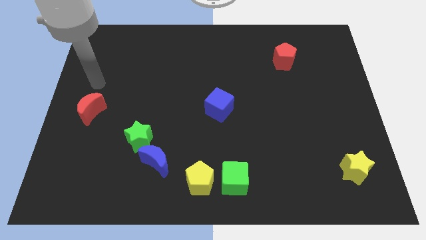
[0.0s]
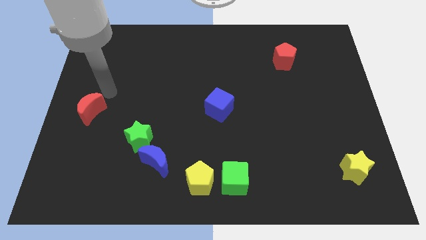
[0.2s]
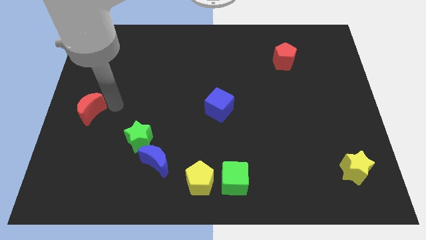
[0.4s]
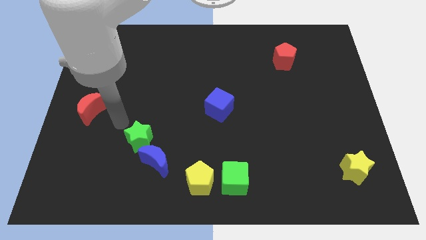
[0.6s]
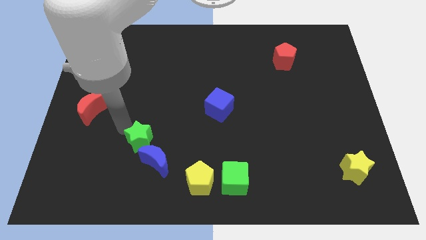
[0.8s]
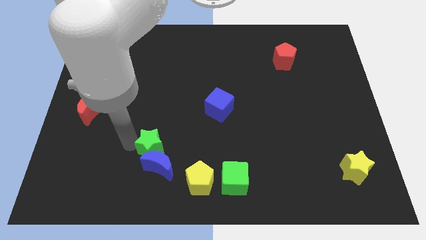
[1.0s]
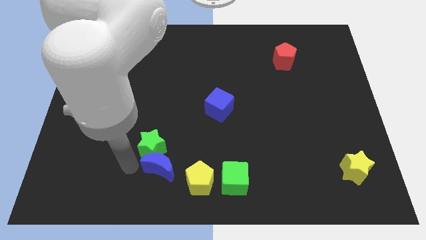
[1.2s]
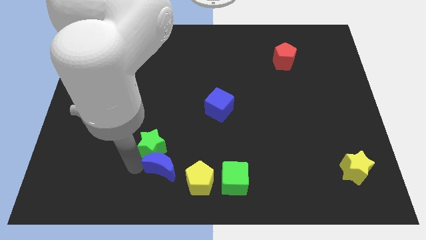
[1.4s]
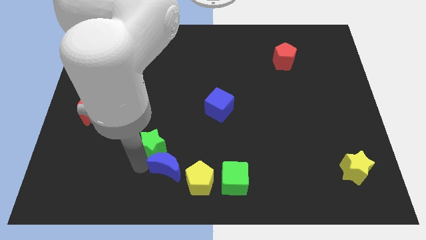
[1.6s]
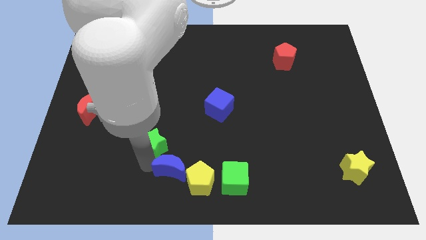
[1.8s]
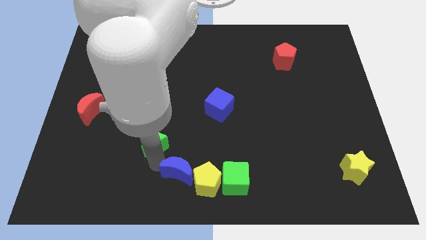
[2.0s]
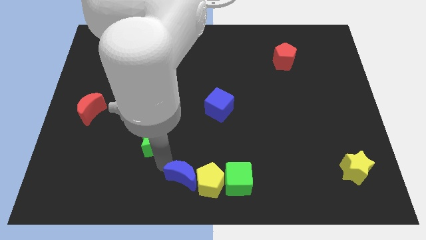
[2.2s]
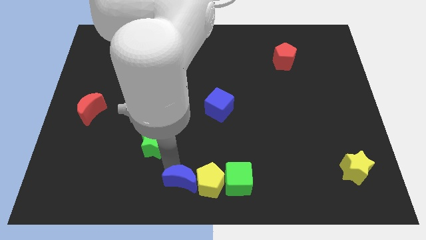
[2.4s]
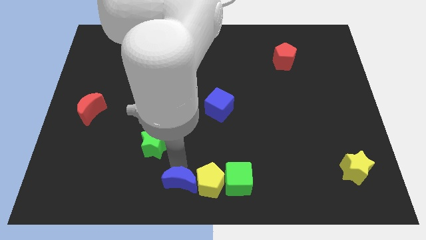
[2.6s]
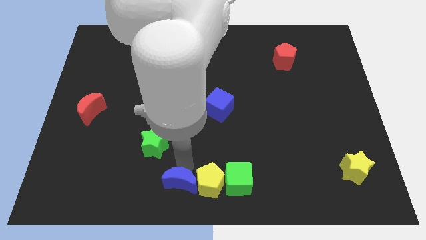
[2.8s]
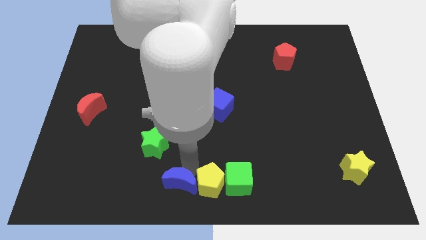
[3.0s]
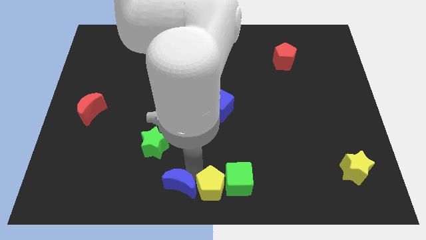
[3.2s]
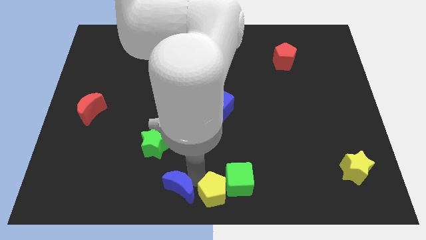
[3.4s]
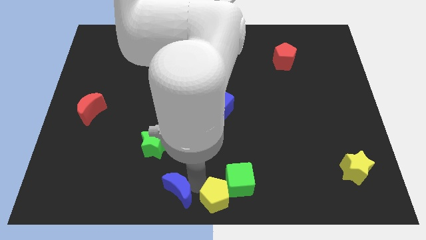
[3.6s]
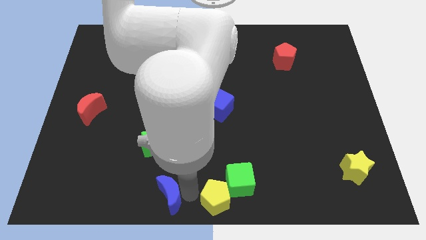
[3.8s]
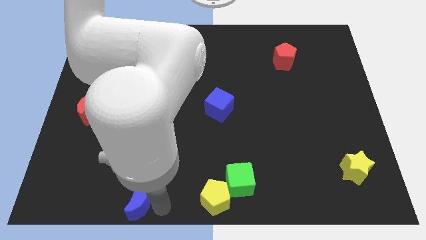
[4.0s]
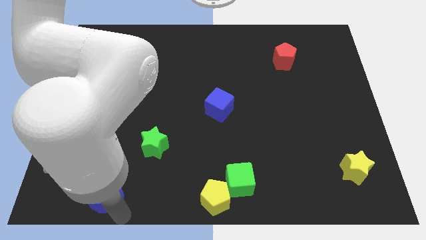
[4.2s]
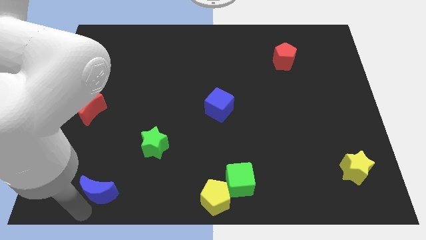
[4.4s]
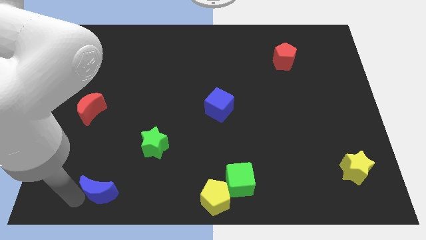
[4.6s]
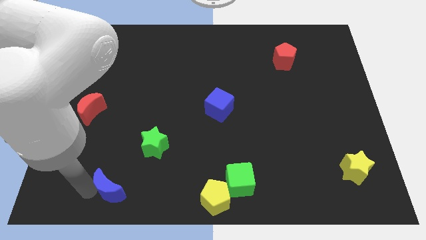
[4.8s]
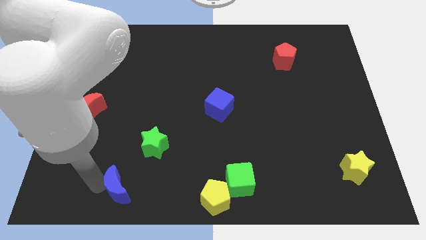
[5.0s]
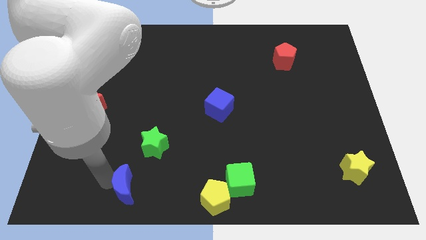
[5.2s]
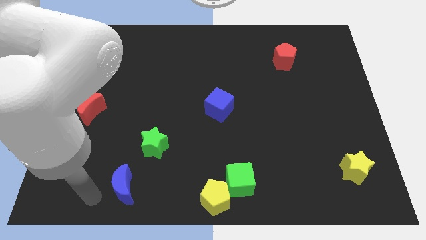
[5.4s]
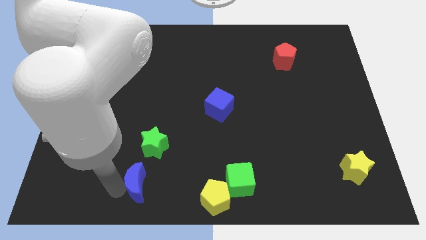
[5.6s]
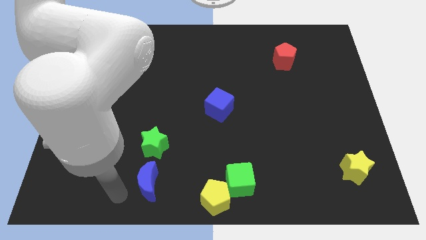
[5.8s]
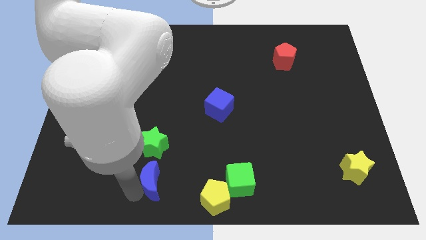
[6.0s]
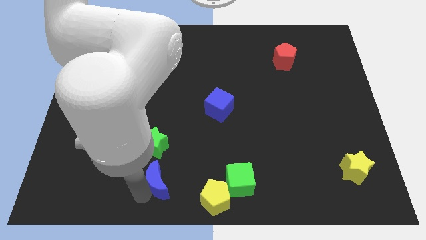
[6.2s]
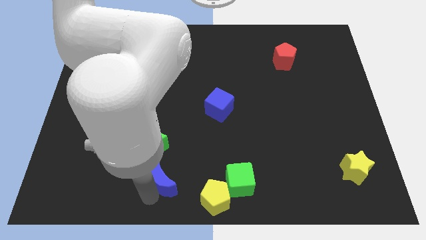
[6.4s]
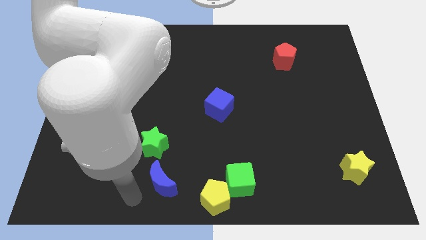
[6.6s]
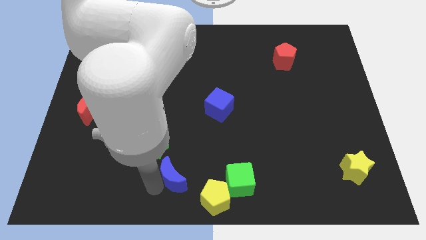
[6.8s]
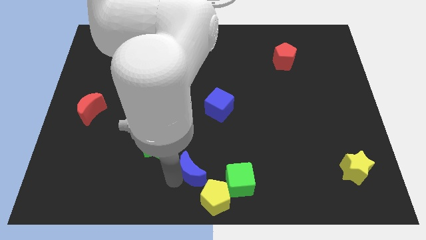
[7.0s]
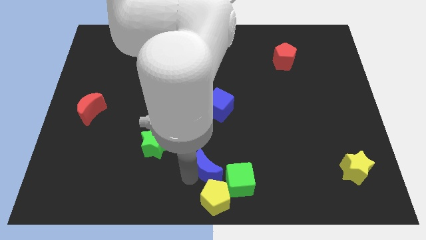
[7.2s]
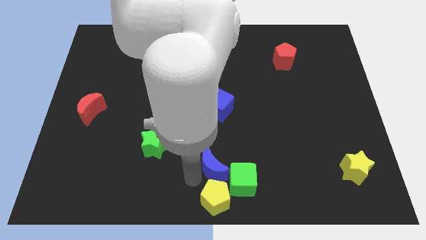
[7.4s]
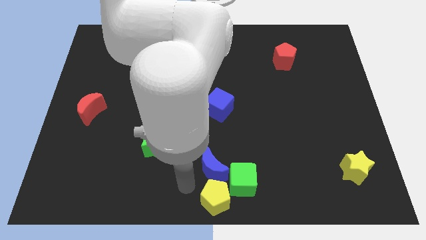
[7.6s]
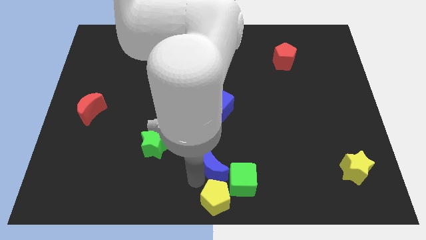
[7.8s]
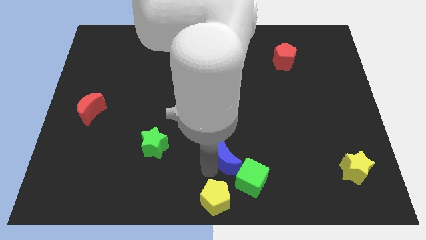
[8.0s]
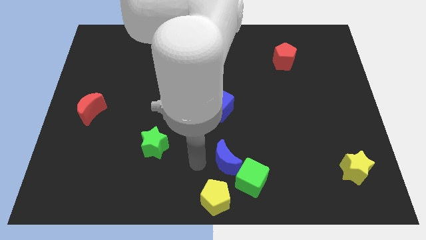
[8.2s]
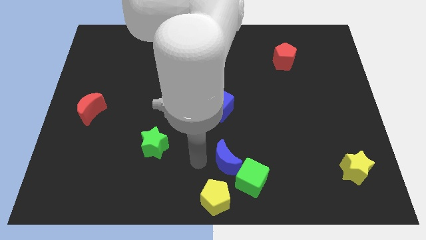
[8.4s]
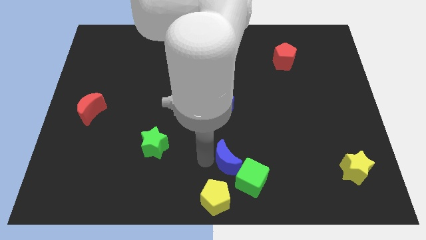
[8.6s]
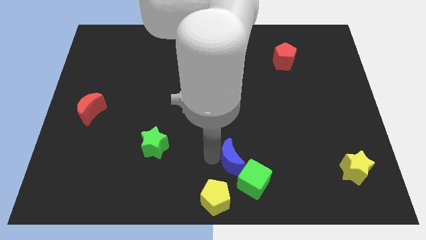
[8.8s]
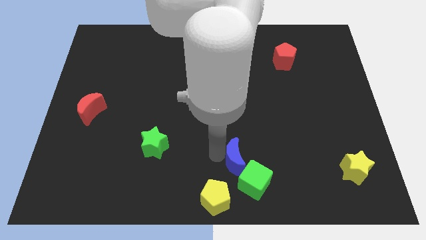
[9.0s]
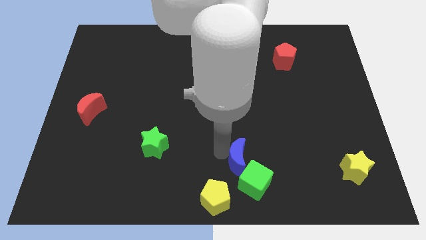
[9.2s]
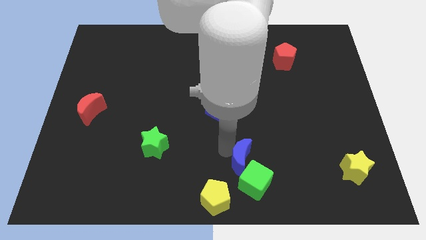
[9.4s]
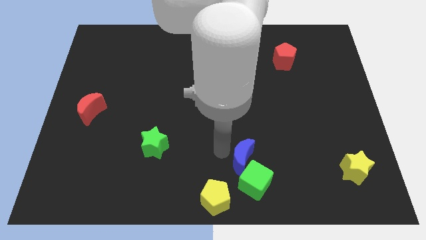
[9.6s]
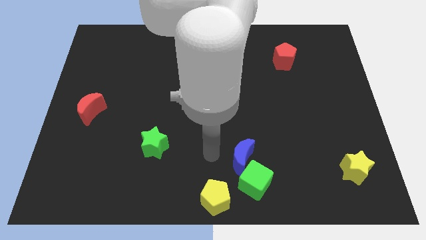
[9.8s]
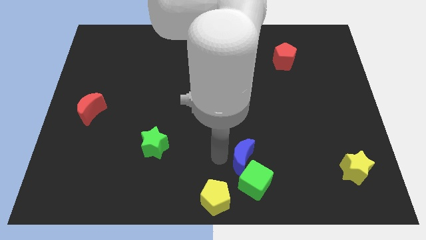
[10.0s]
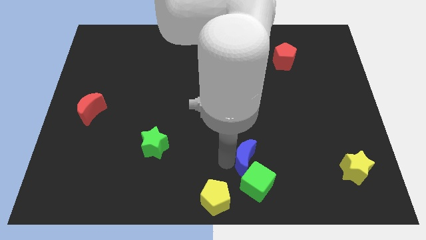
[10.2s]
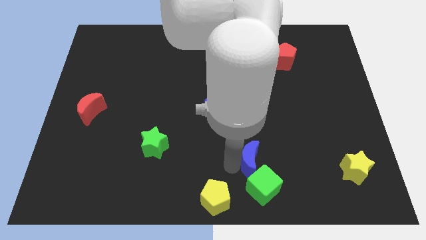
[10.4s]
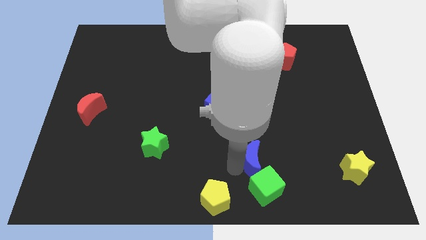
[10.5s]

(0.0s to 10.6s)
slide the blue moon to the right

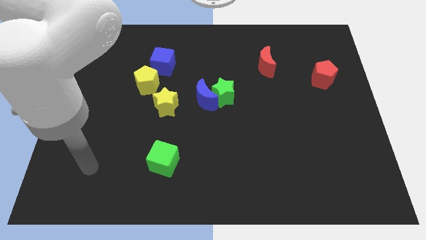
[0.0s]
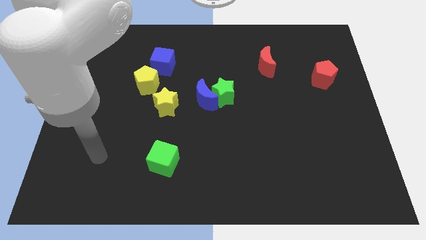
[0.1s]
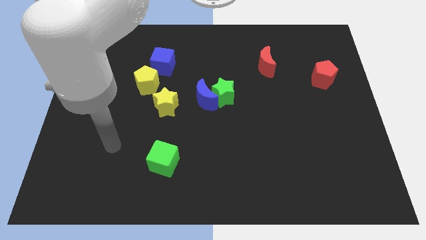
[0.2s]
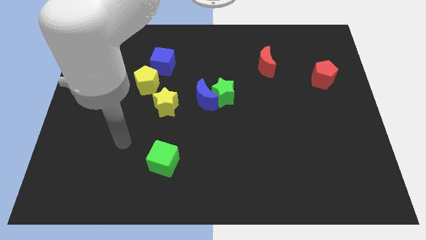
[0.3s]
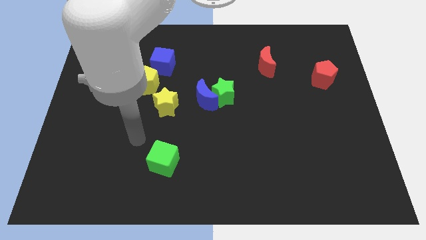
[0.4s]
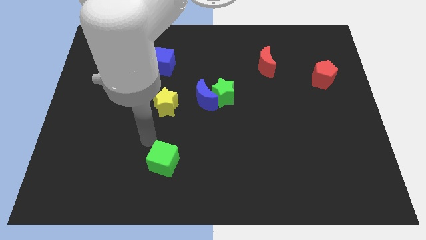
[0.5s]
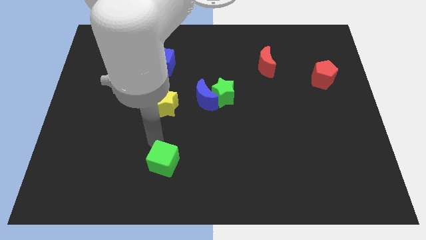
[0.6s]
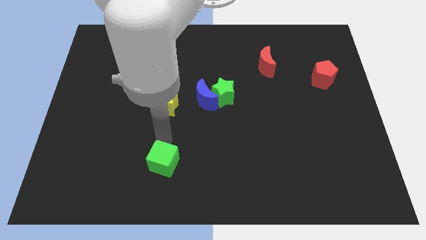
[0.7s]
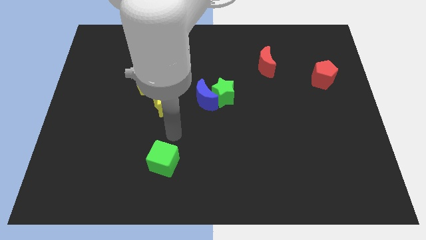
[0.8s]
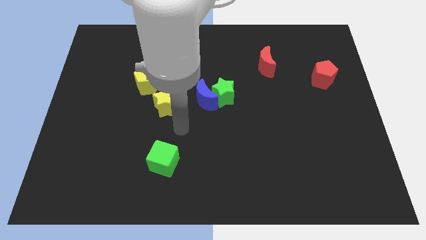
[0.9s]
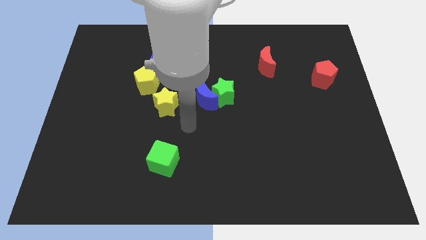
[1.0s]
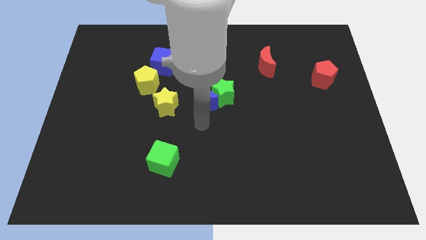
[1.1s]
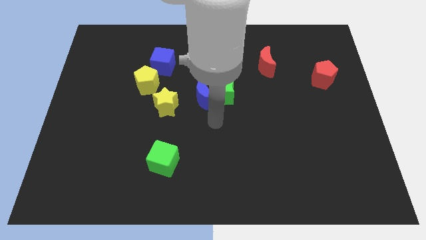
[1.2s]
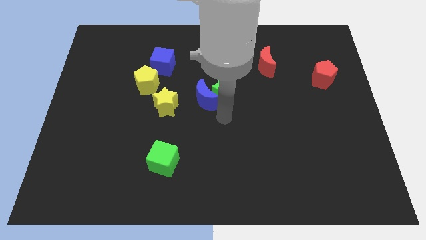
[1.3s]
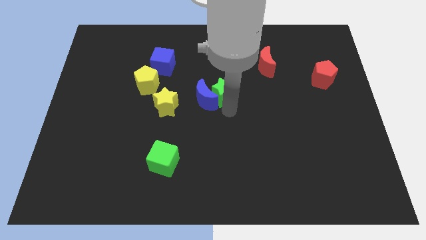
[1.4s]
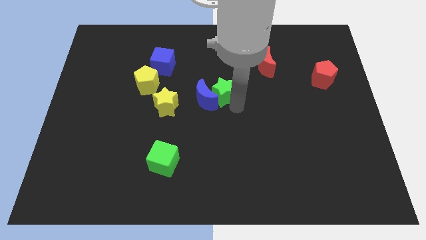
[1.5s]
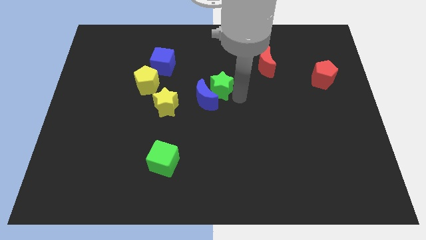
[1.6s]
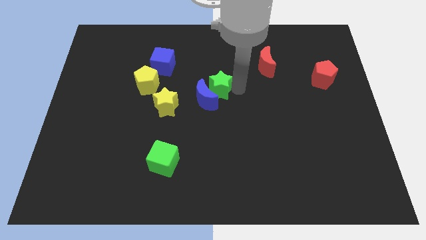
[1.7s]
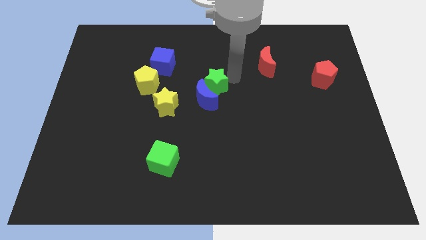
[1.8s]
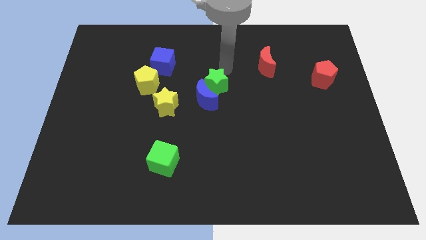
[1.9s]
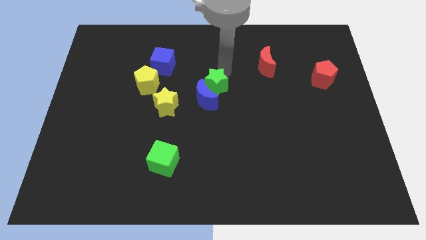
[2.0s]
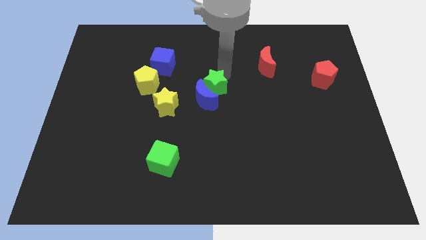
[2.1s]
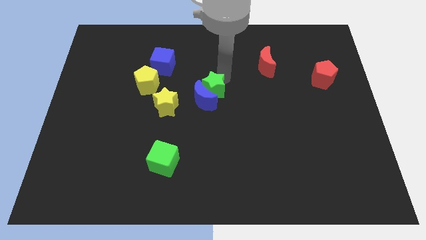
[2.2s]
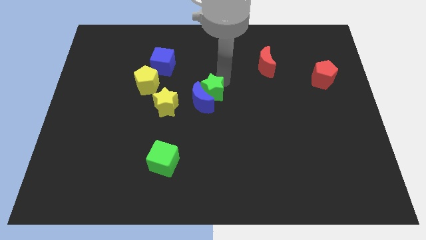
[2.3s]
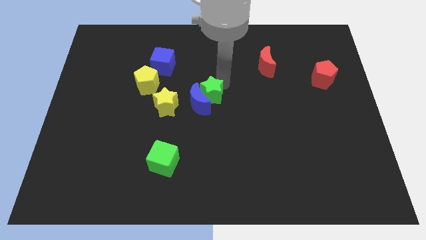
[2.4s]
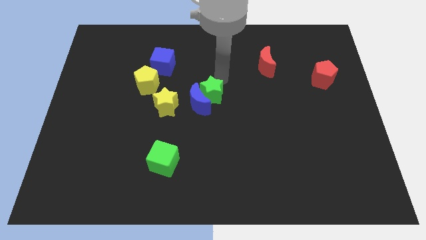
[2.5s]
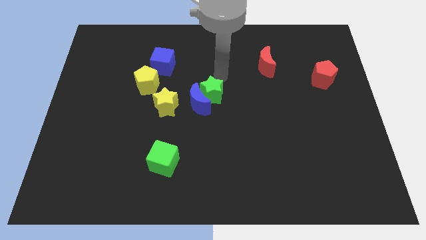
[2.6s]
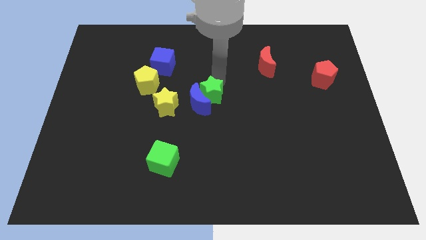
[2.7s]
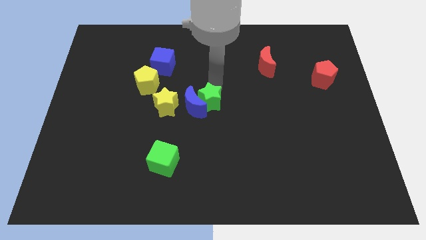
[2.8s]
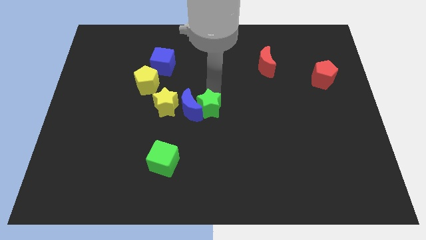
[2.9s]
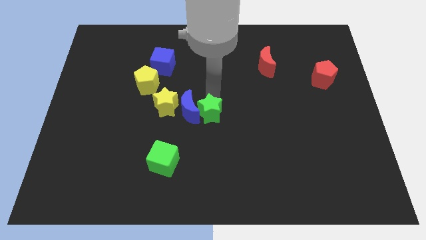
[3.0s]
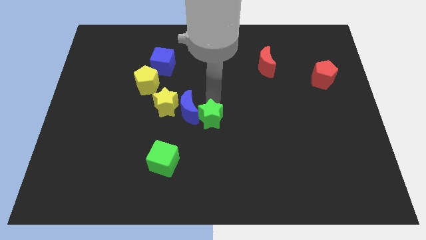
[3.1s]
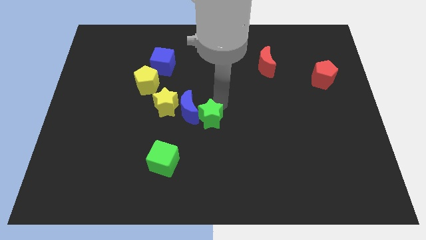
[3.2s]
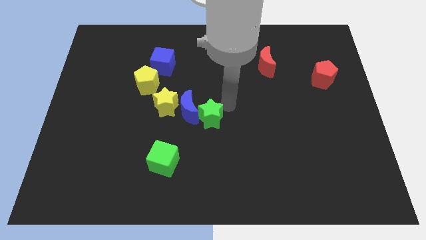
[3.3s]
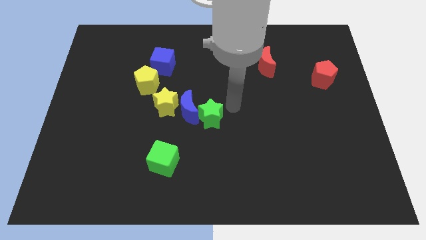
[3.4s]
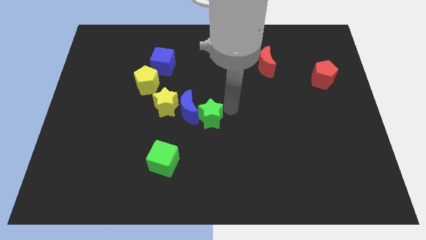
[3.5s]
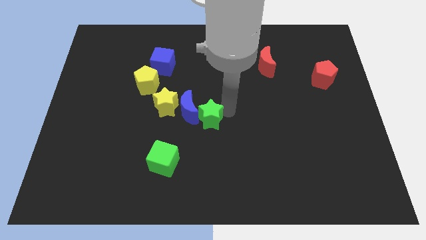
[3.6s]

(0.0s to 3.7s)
slide the green star a little downwards and left
